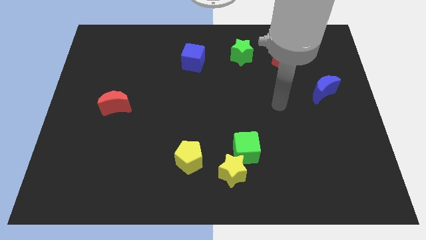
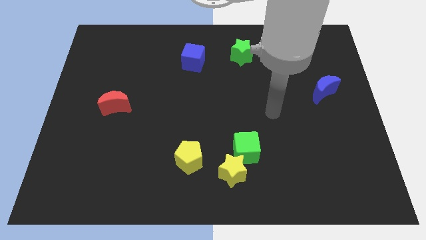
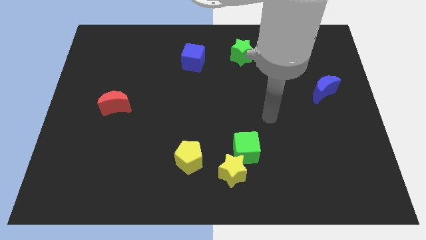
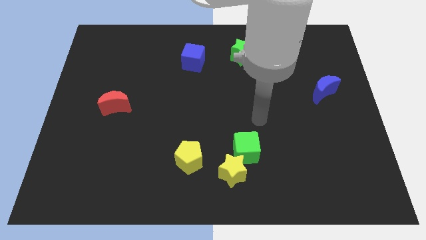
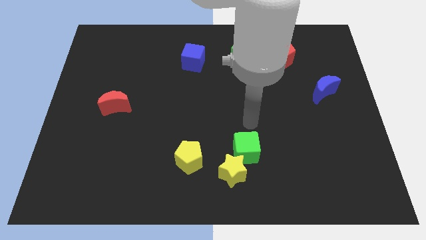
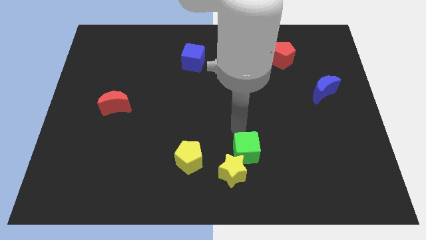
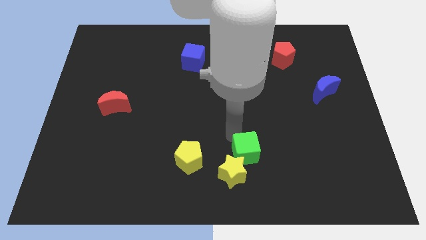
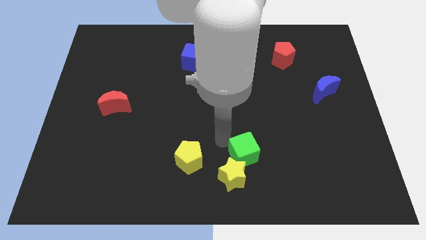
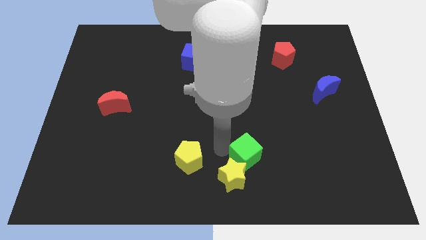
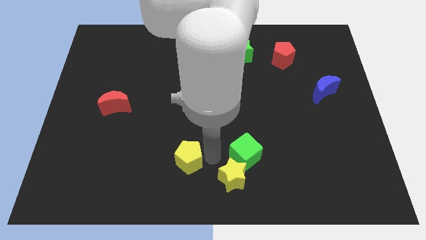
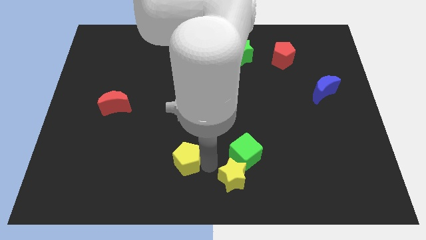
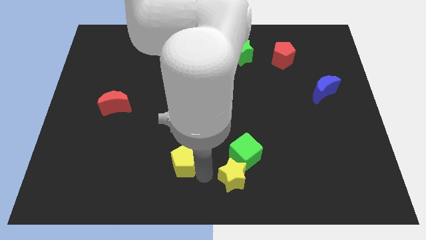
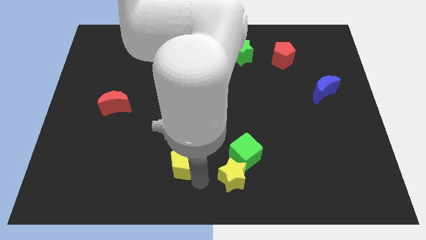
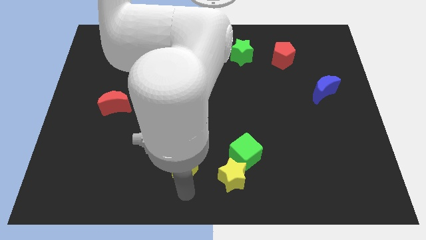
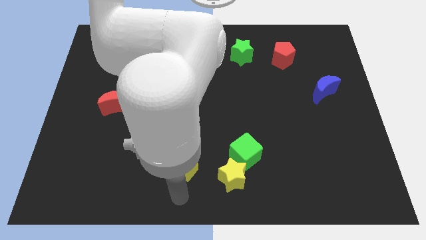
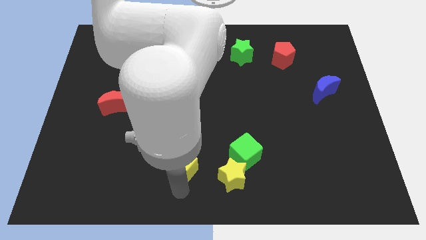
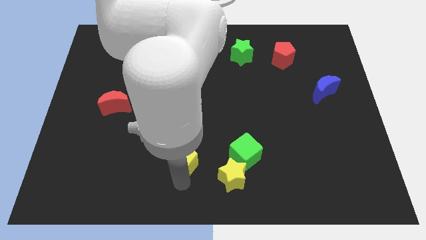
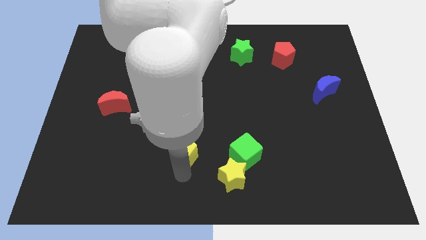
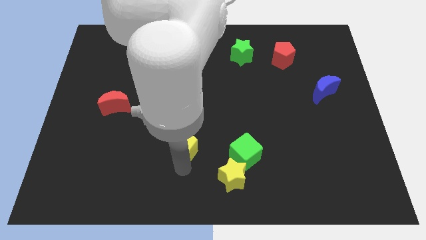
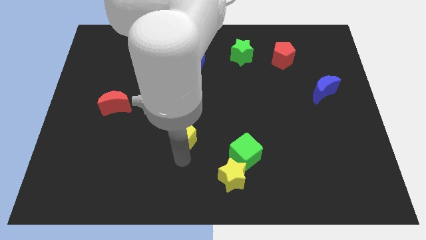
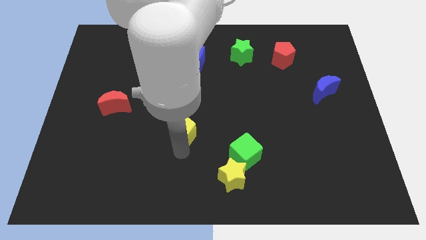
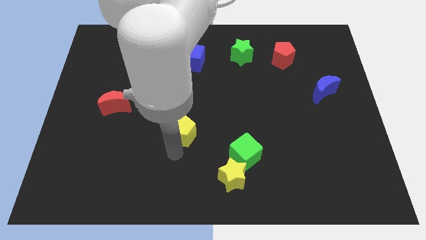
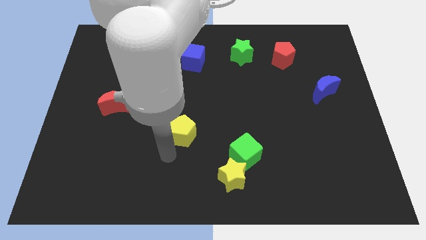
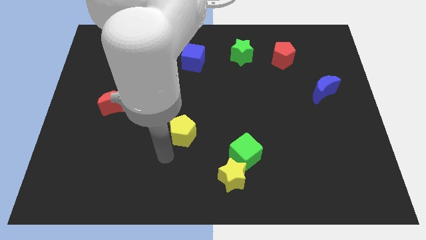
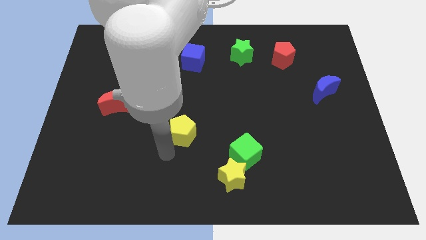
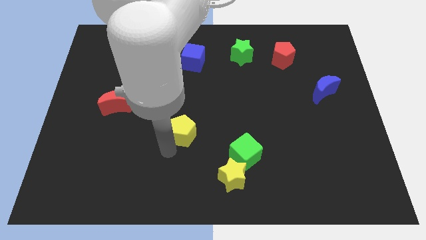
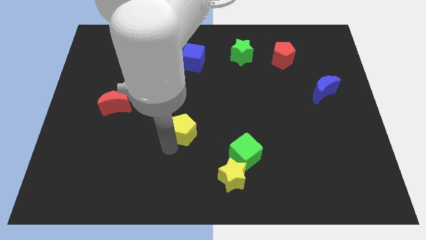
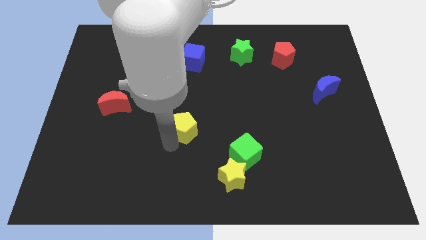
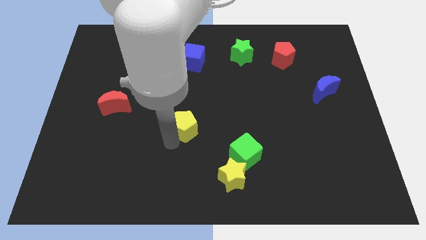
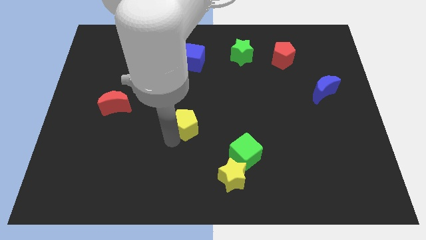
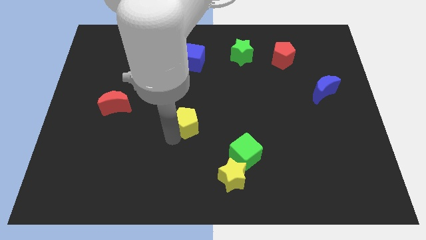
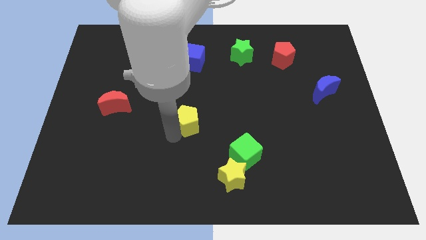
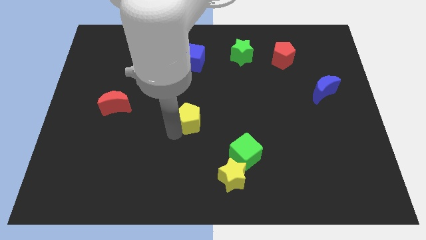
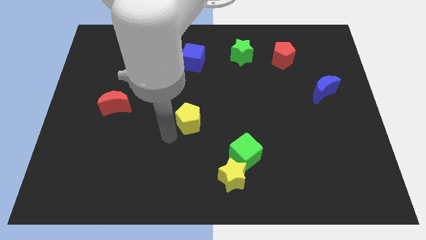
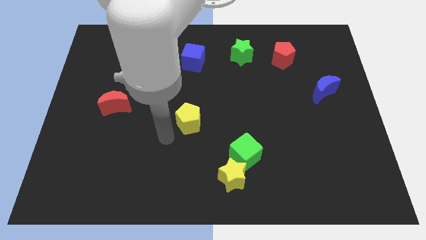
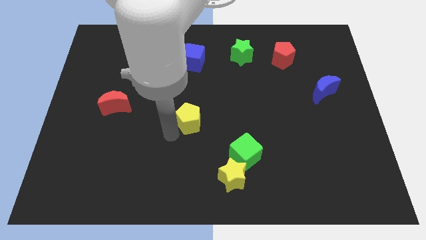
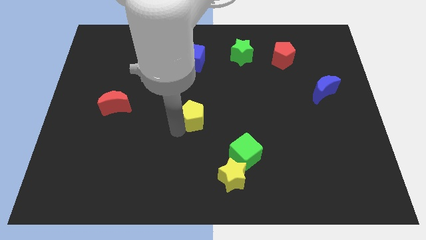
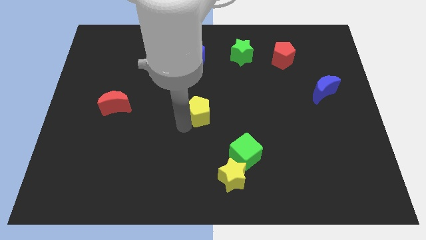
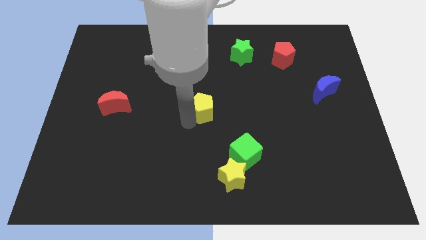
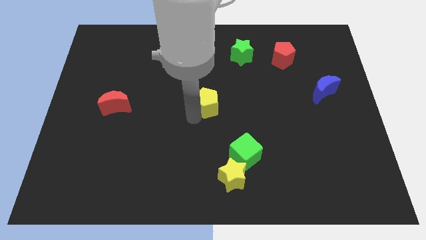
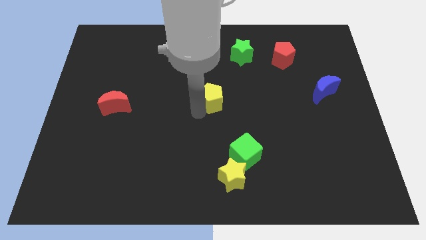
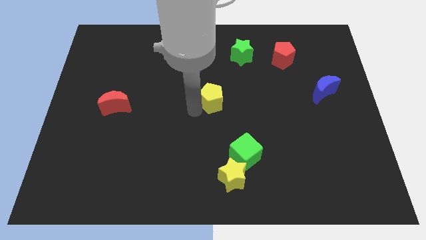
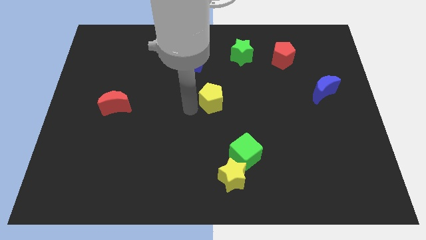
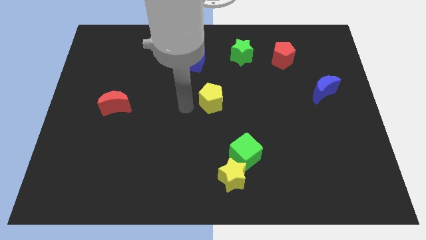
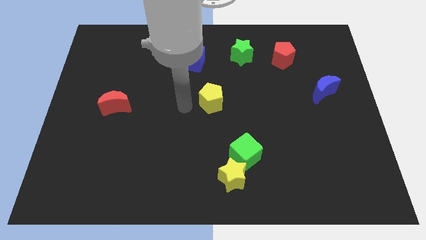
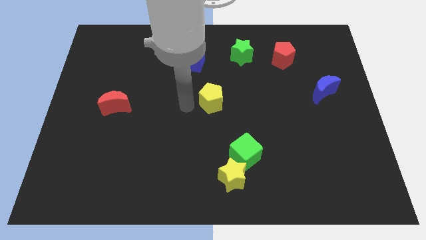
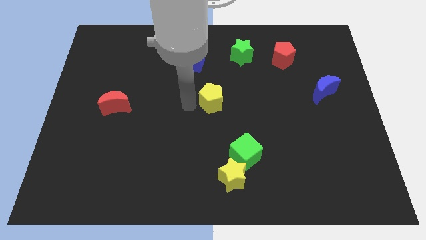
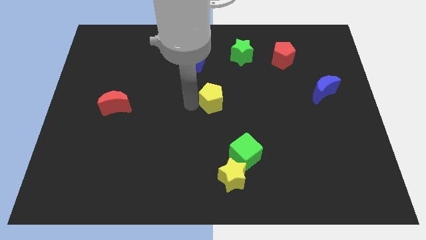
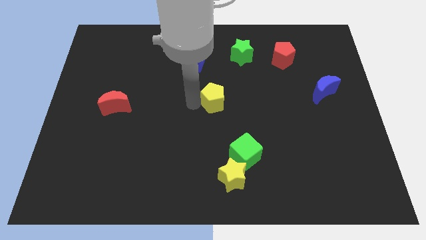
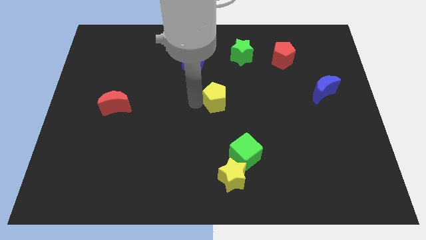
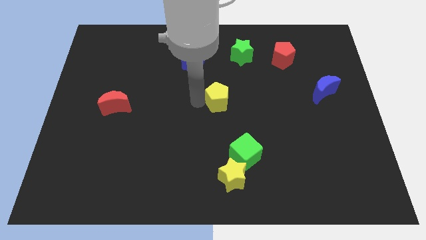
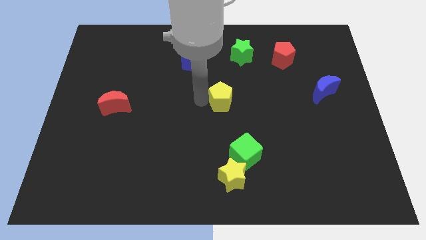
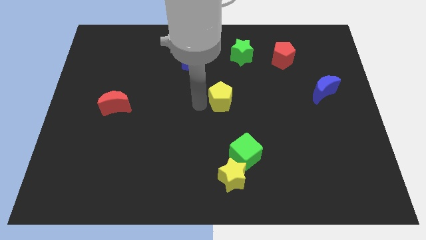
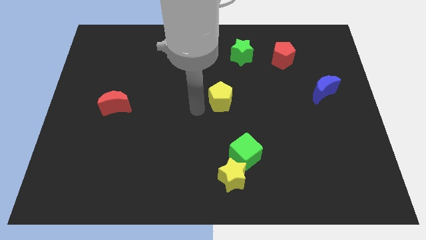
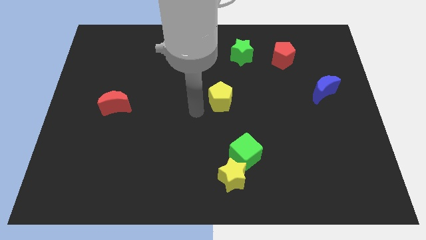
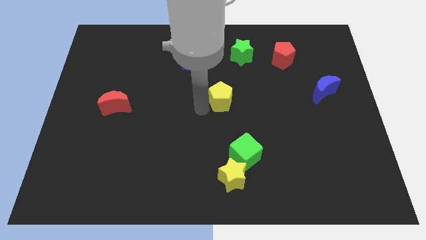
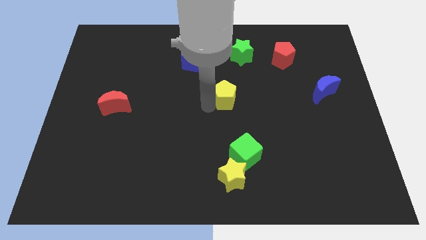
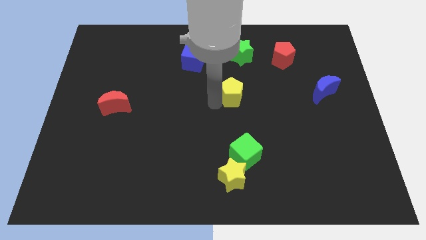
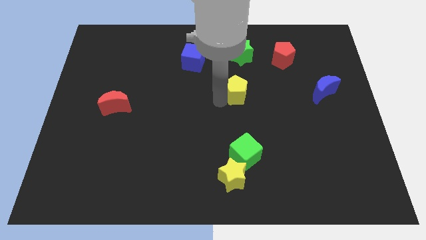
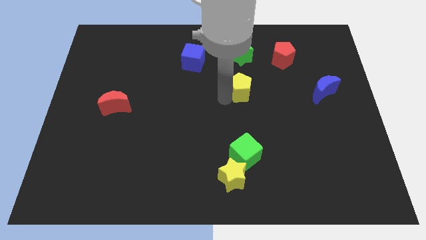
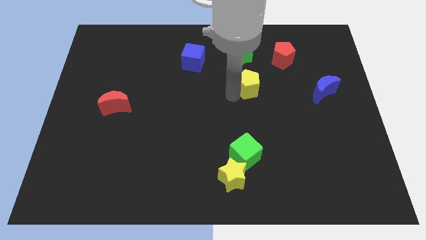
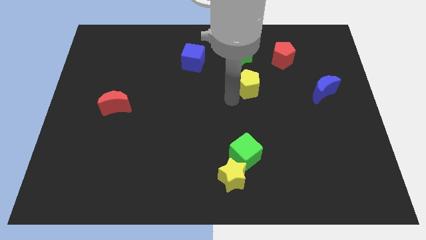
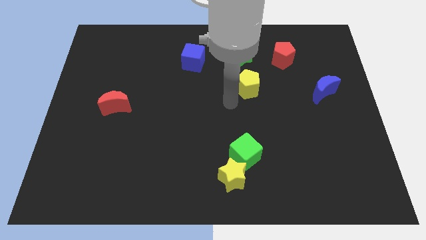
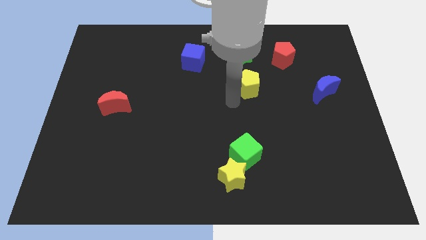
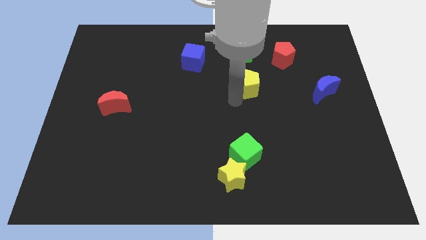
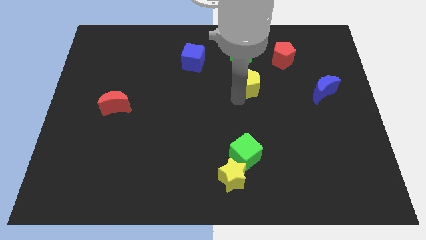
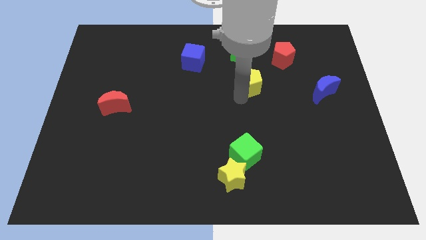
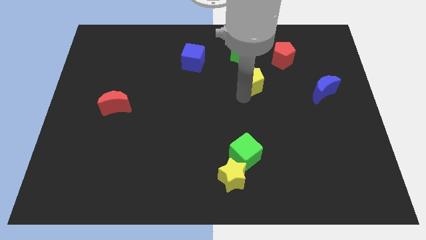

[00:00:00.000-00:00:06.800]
slide the yellow pentagon diagonally down and to the left of the red pentagon

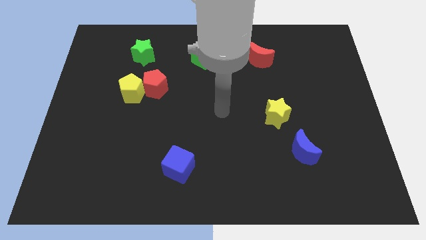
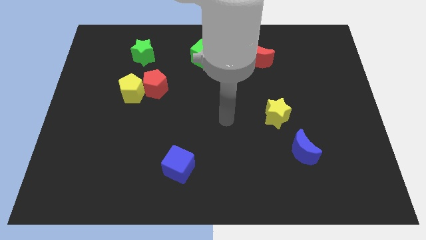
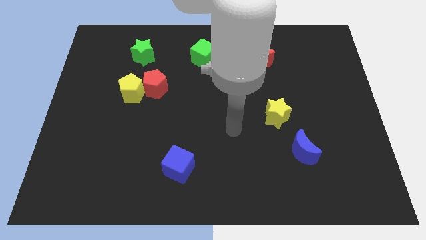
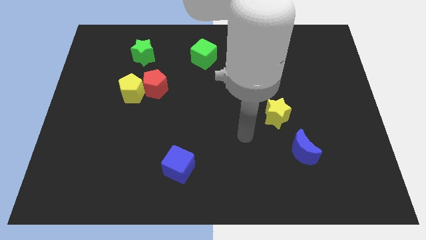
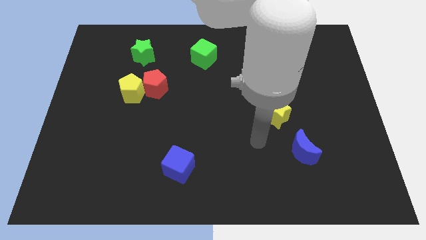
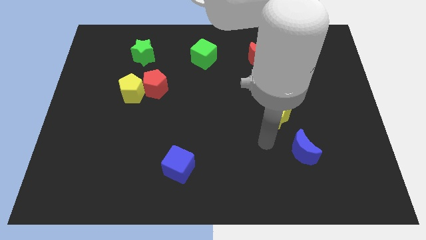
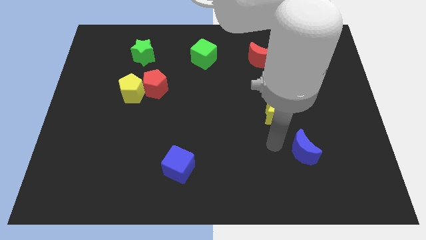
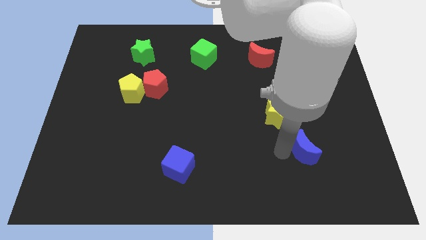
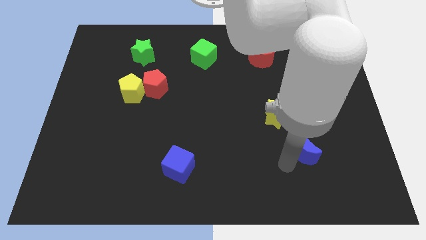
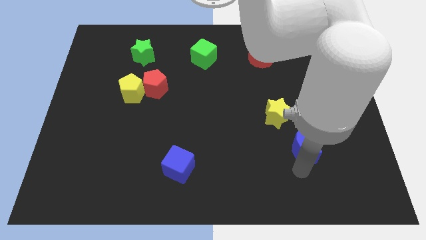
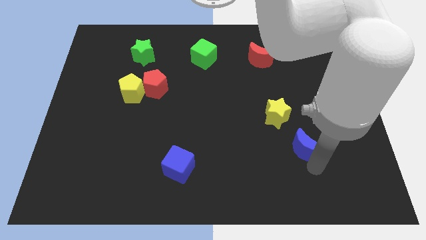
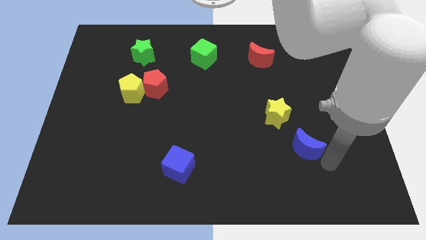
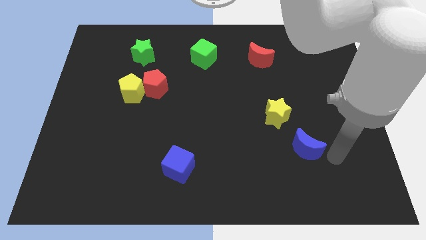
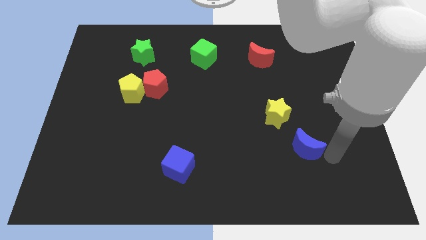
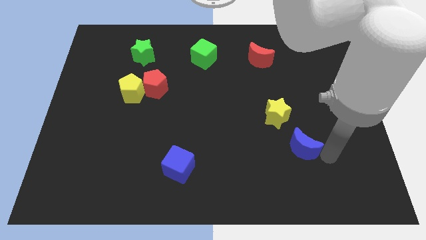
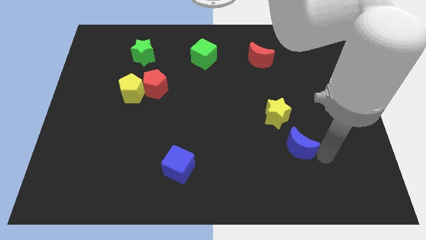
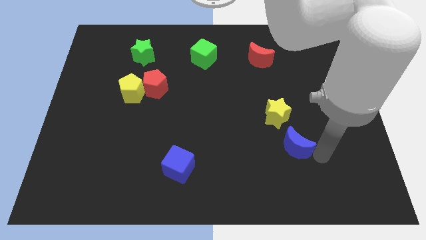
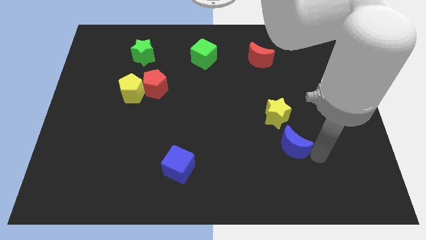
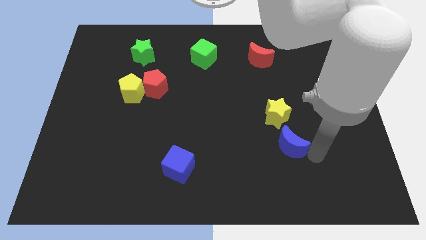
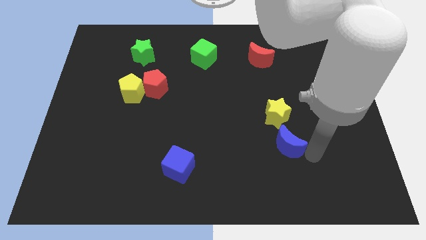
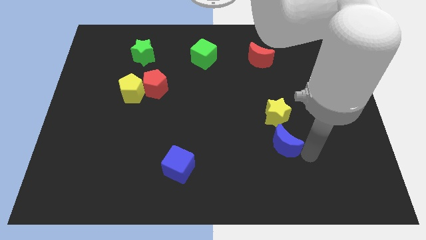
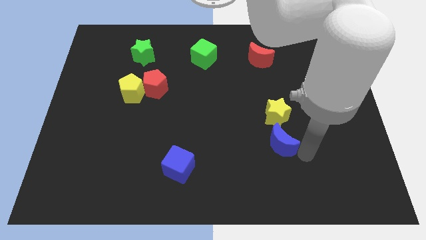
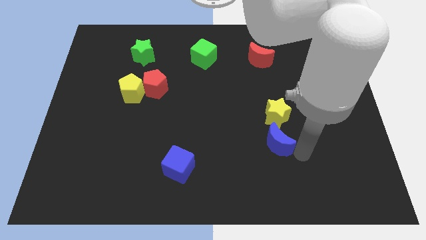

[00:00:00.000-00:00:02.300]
slide the blue moon diagonally down and to the left of the yellow star
